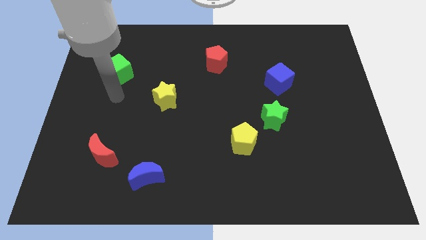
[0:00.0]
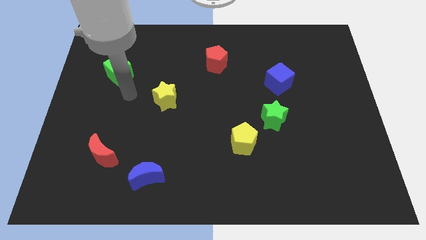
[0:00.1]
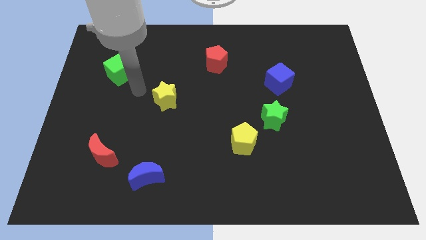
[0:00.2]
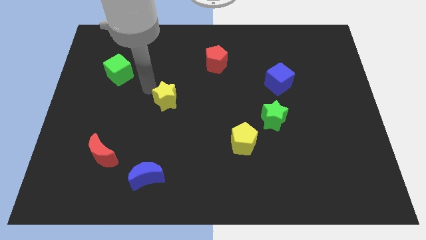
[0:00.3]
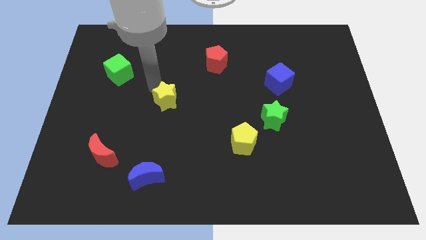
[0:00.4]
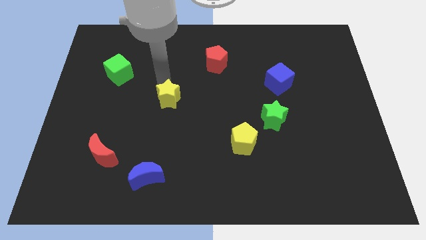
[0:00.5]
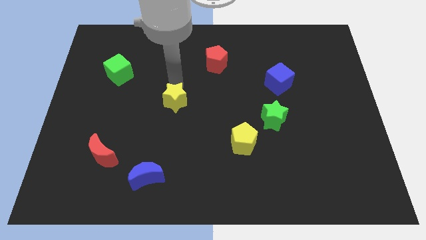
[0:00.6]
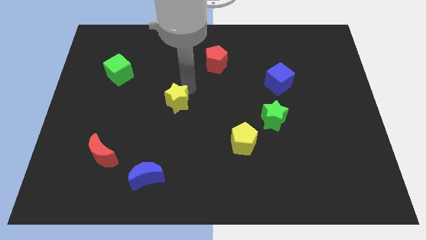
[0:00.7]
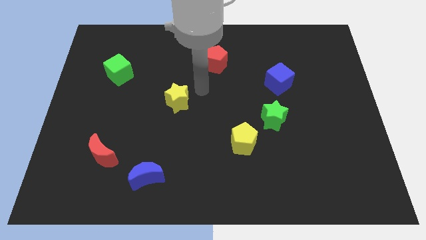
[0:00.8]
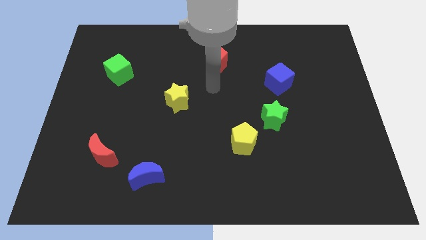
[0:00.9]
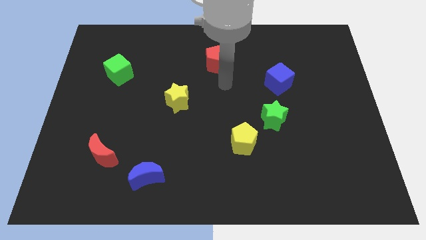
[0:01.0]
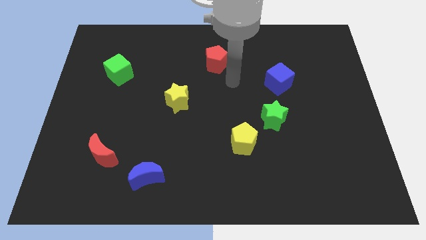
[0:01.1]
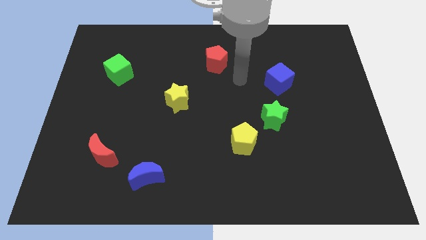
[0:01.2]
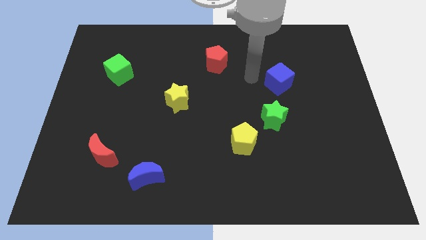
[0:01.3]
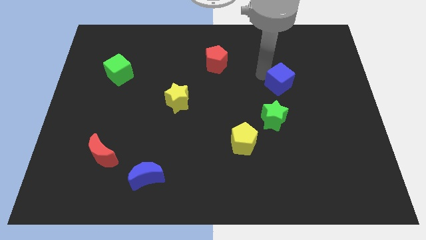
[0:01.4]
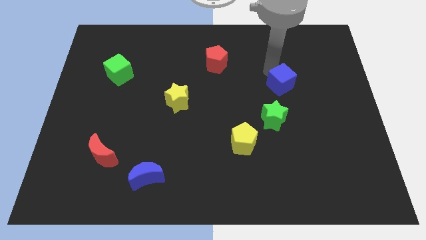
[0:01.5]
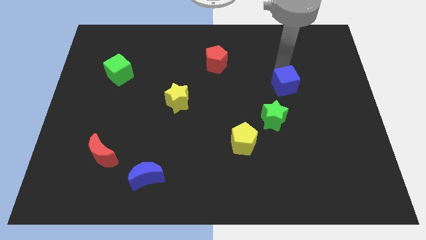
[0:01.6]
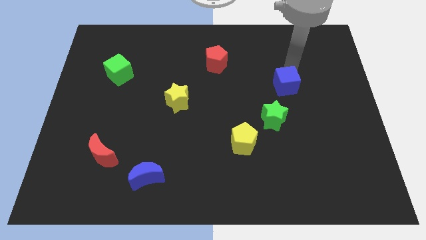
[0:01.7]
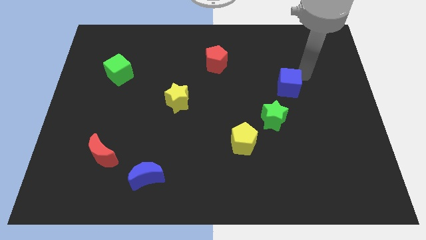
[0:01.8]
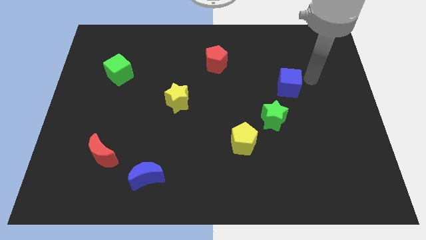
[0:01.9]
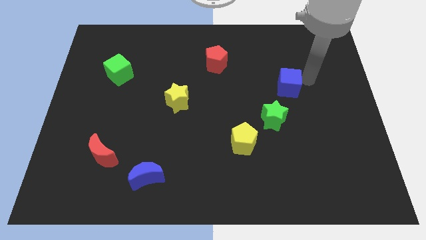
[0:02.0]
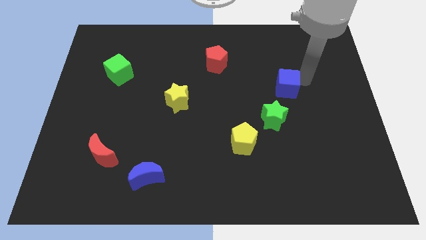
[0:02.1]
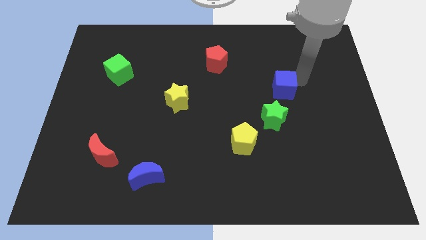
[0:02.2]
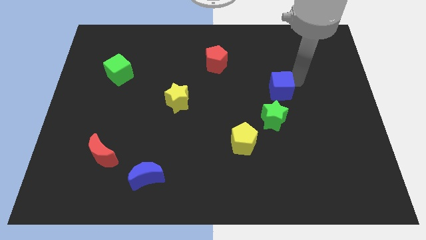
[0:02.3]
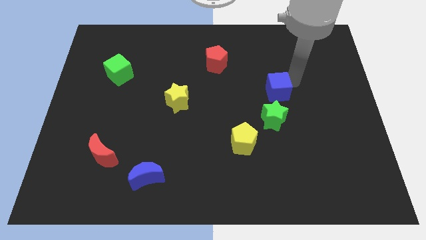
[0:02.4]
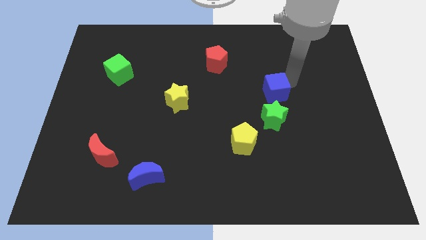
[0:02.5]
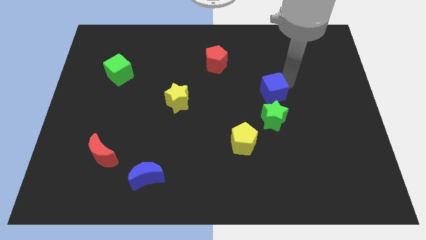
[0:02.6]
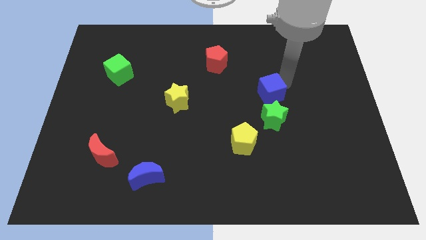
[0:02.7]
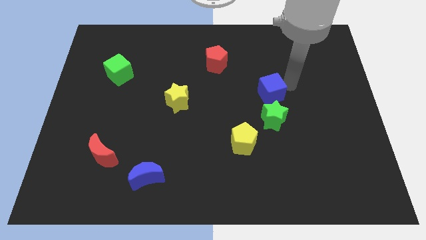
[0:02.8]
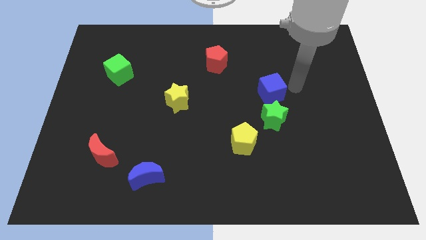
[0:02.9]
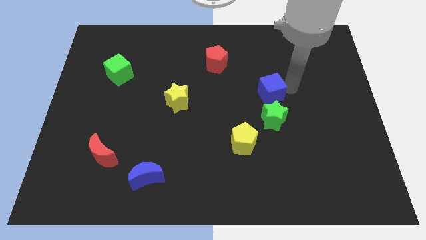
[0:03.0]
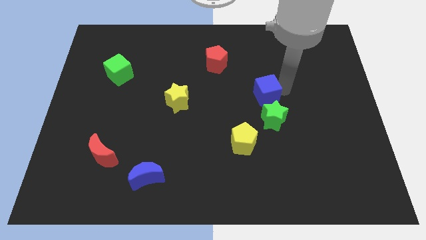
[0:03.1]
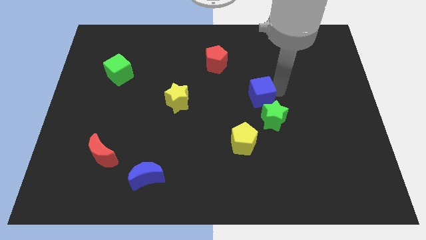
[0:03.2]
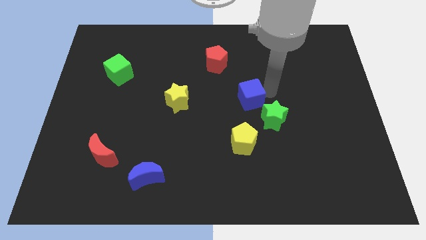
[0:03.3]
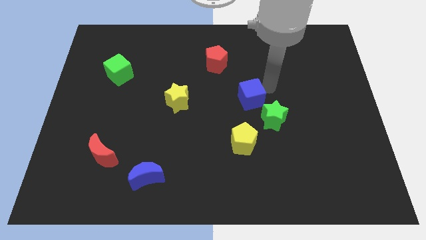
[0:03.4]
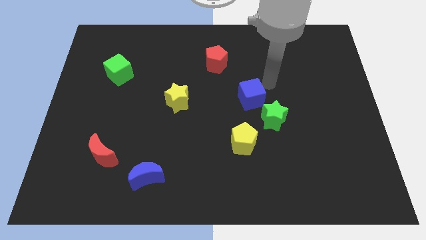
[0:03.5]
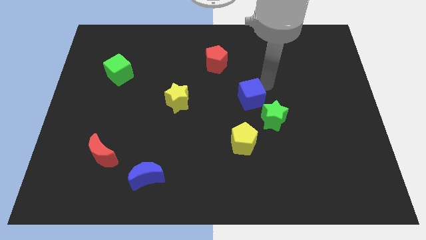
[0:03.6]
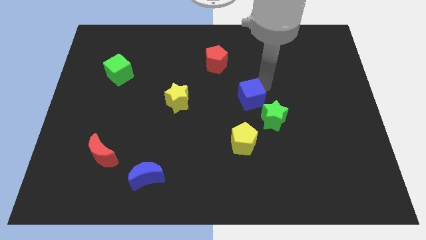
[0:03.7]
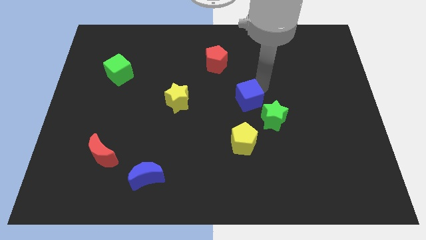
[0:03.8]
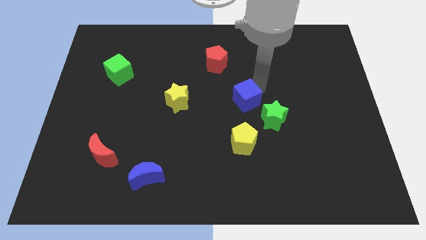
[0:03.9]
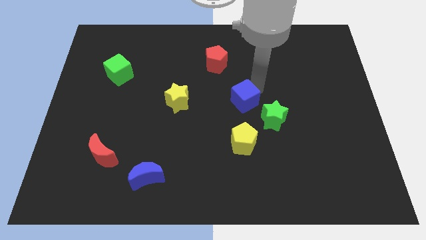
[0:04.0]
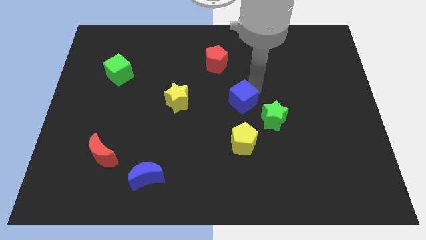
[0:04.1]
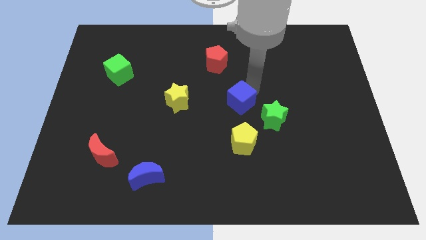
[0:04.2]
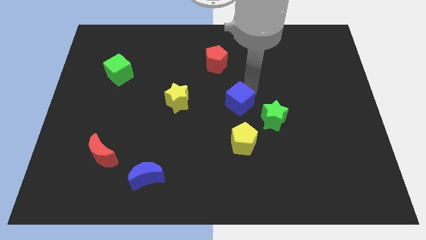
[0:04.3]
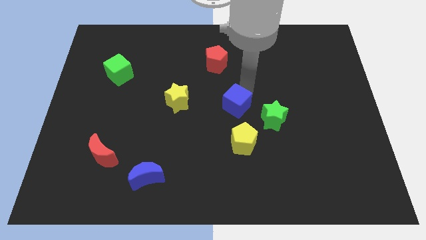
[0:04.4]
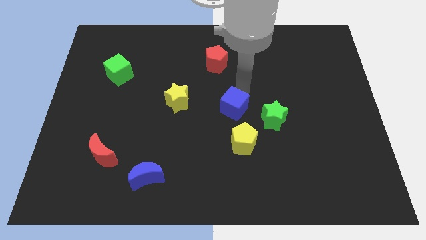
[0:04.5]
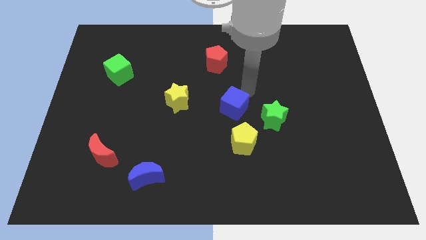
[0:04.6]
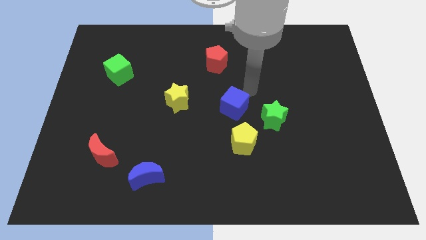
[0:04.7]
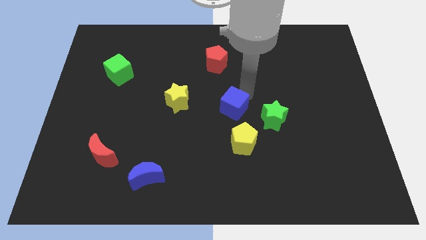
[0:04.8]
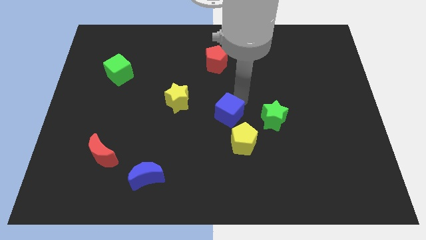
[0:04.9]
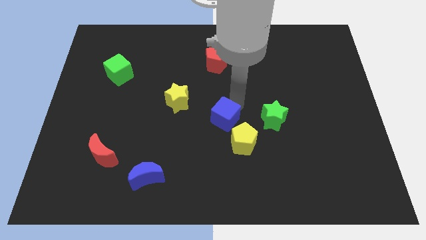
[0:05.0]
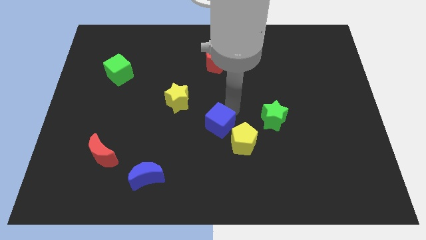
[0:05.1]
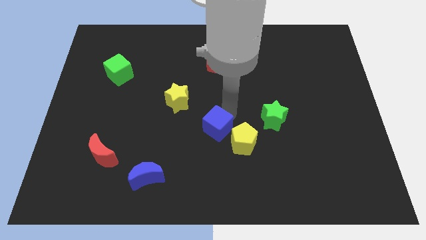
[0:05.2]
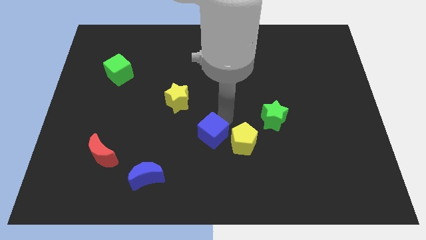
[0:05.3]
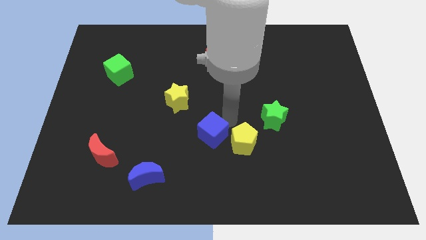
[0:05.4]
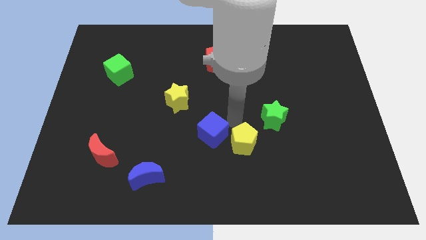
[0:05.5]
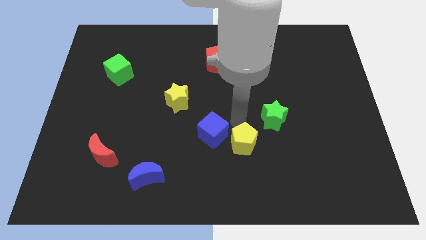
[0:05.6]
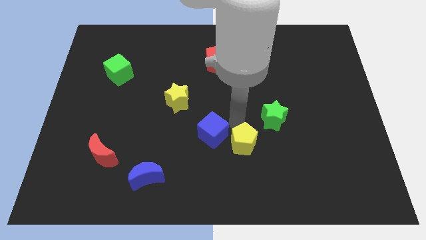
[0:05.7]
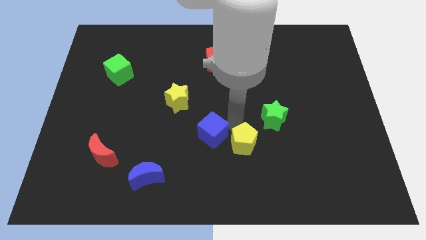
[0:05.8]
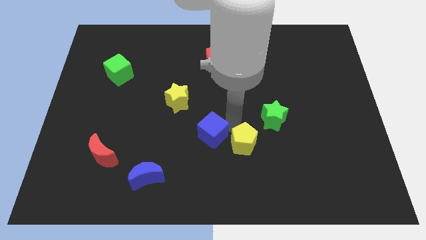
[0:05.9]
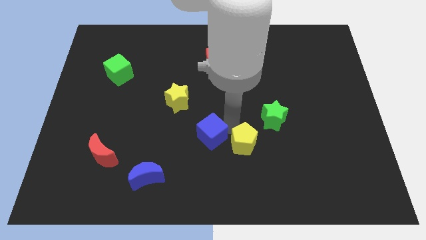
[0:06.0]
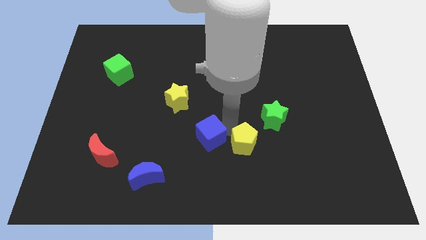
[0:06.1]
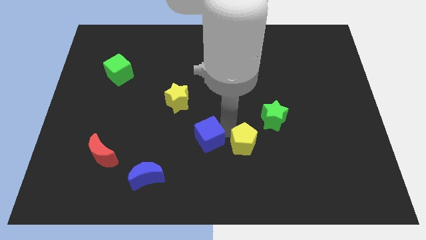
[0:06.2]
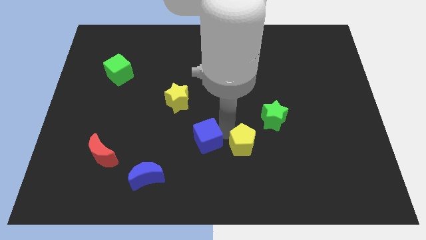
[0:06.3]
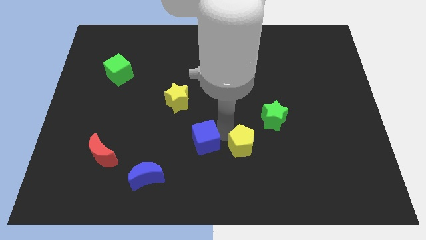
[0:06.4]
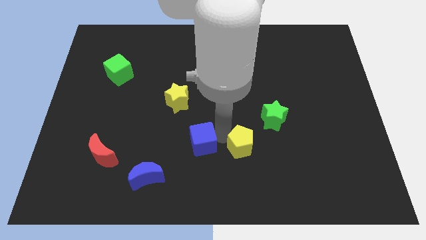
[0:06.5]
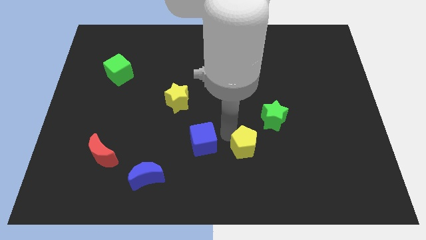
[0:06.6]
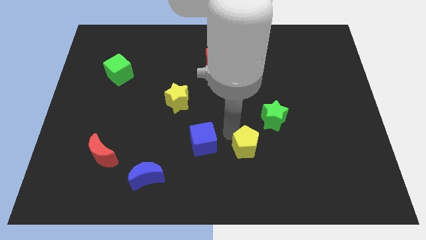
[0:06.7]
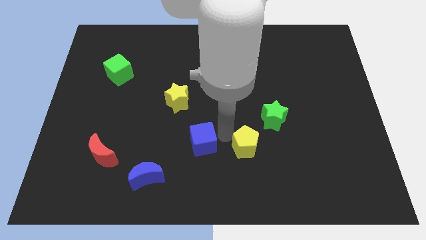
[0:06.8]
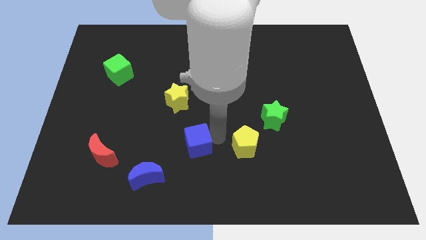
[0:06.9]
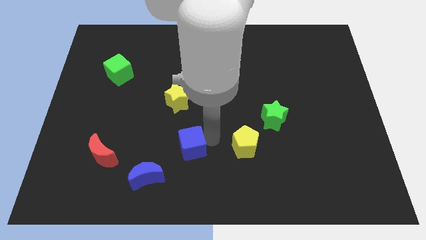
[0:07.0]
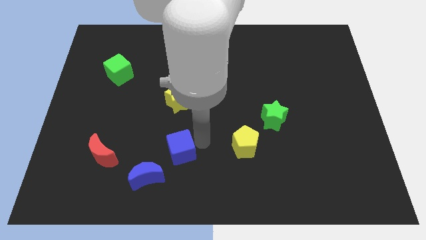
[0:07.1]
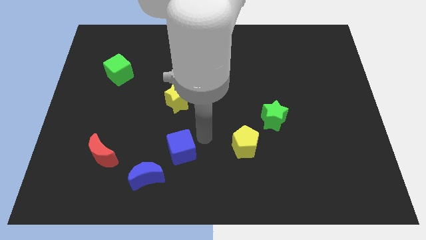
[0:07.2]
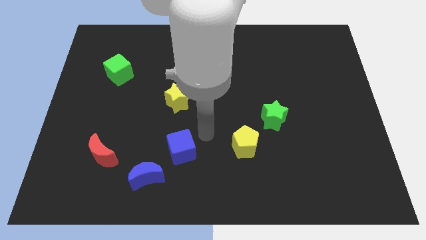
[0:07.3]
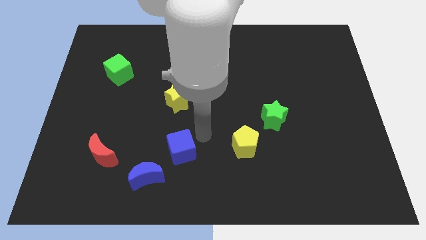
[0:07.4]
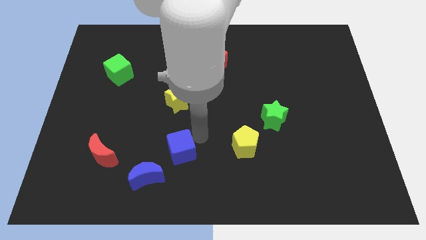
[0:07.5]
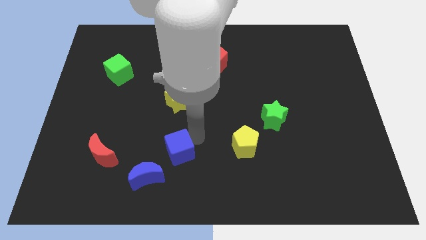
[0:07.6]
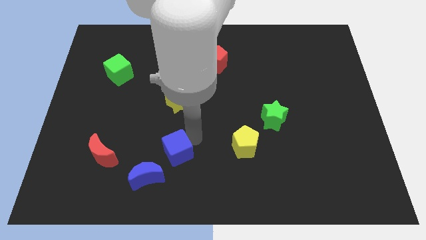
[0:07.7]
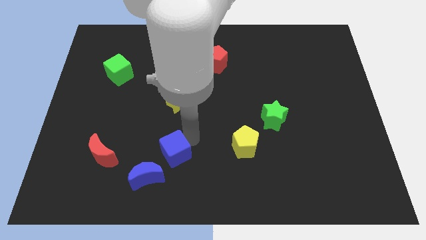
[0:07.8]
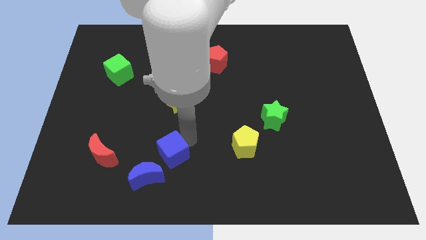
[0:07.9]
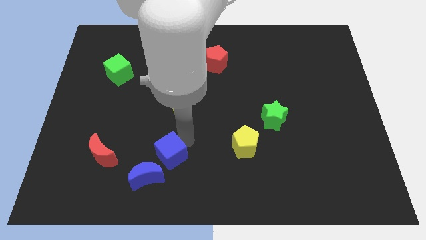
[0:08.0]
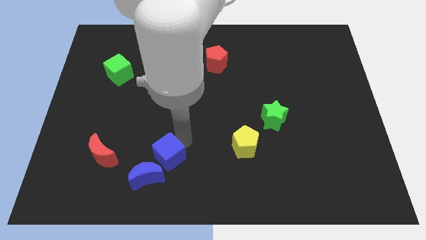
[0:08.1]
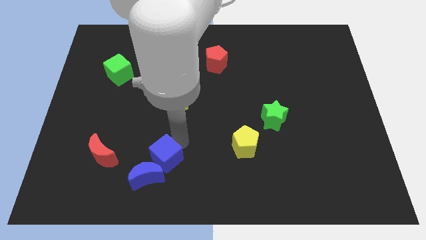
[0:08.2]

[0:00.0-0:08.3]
slide the blue cube close to the blue moon
